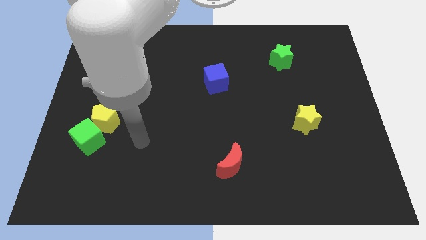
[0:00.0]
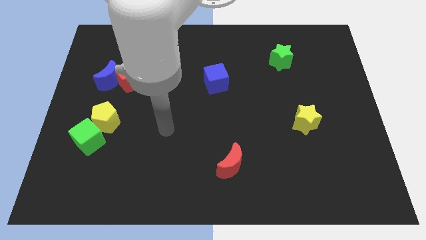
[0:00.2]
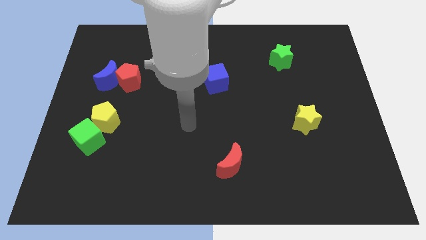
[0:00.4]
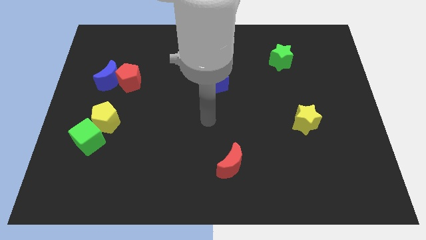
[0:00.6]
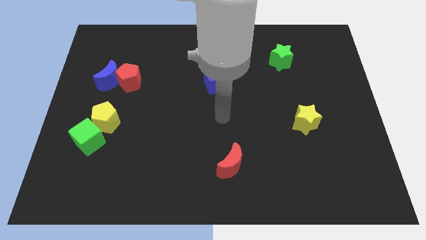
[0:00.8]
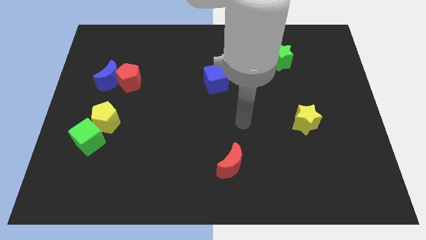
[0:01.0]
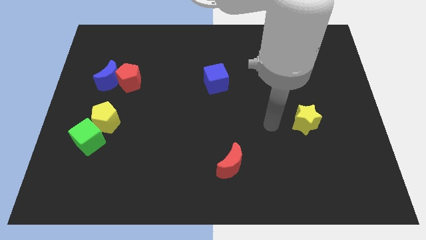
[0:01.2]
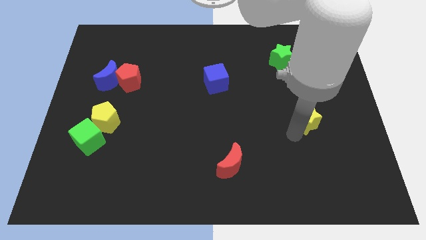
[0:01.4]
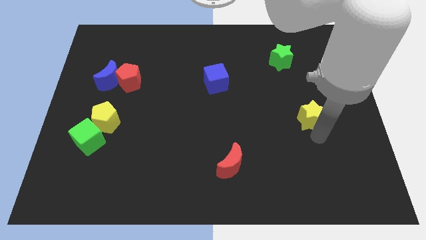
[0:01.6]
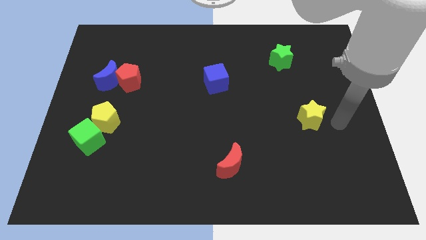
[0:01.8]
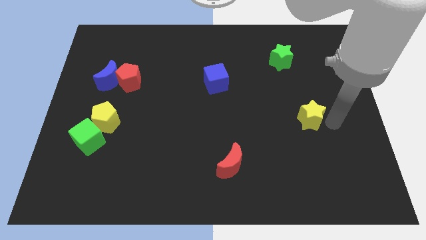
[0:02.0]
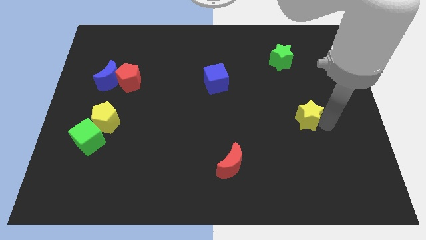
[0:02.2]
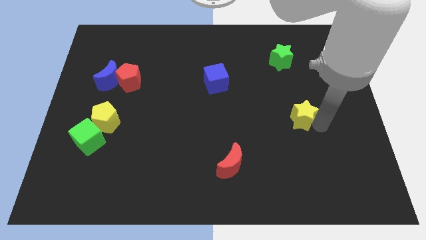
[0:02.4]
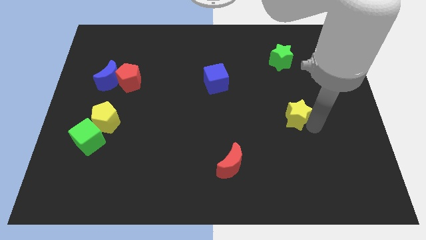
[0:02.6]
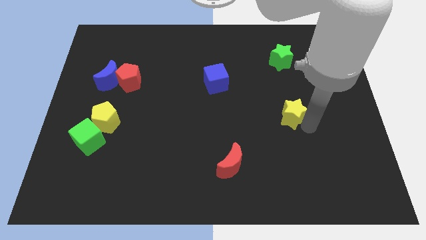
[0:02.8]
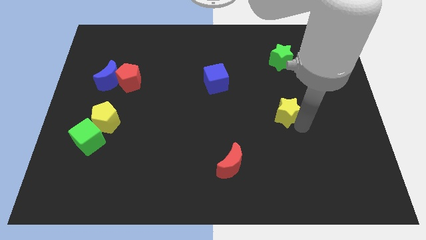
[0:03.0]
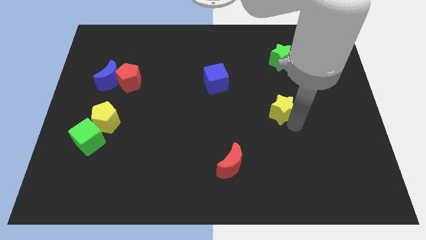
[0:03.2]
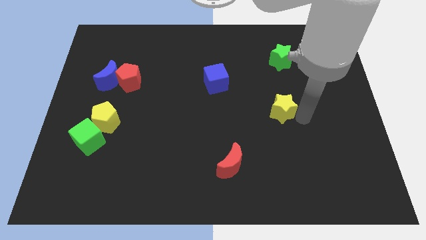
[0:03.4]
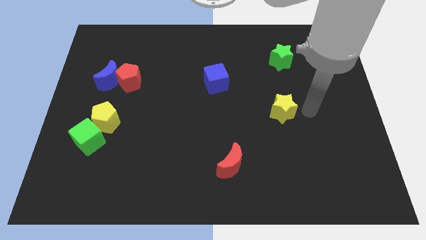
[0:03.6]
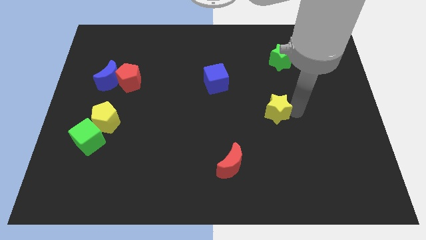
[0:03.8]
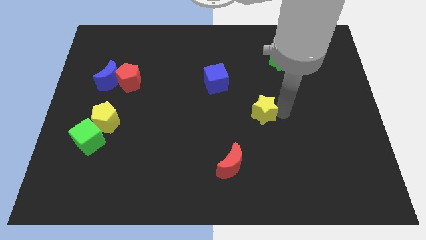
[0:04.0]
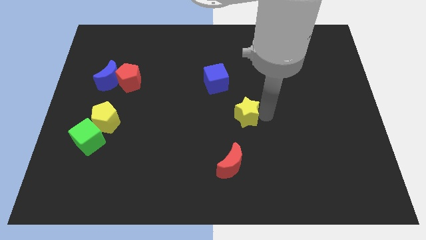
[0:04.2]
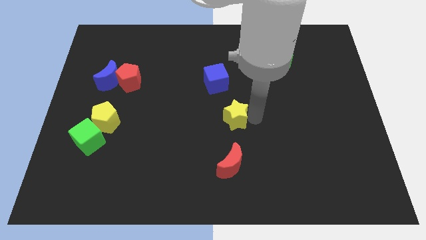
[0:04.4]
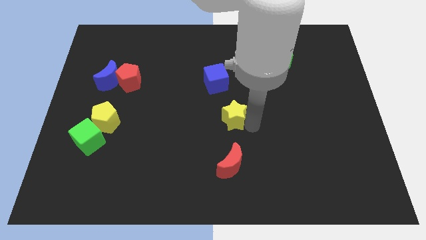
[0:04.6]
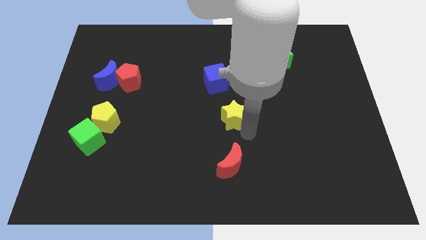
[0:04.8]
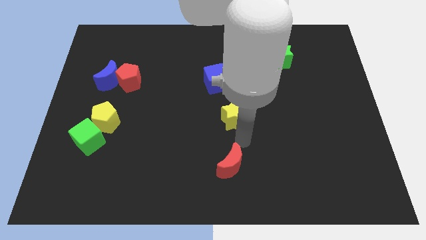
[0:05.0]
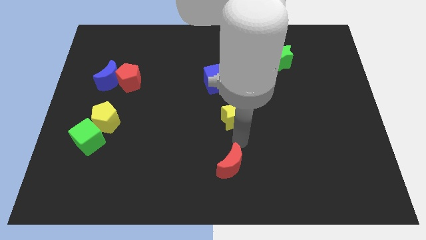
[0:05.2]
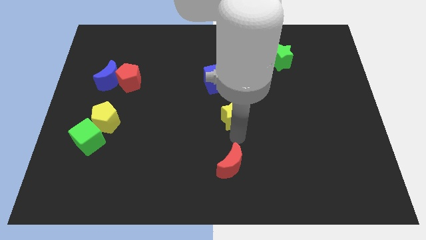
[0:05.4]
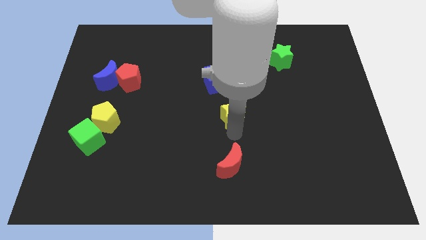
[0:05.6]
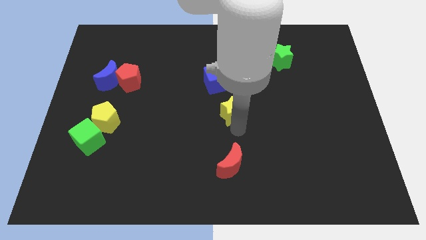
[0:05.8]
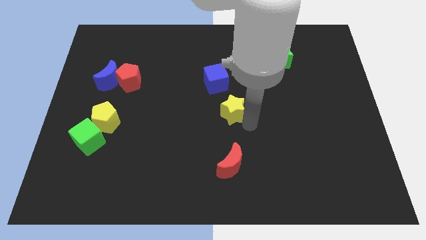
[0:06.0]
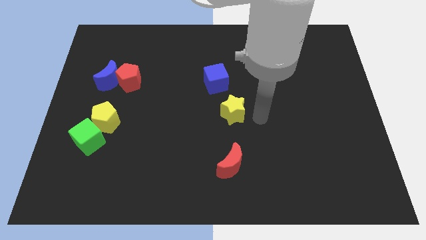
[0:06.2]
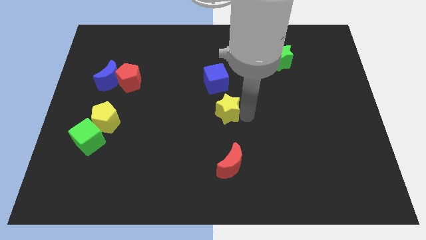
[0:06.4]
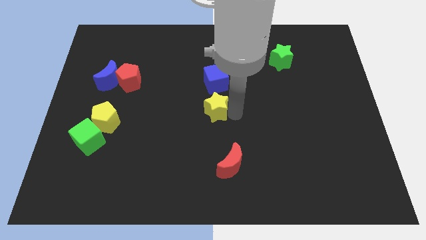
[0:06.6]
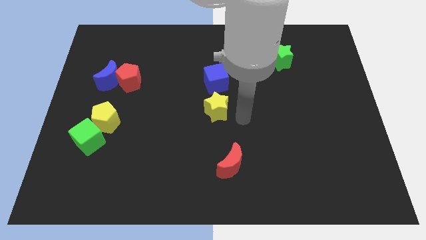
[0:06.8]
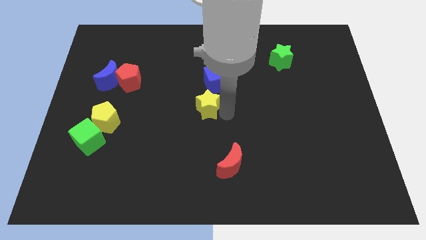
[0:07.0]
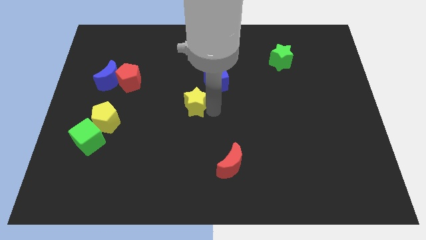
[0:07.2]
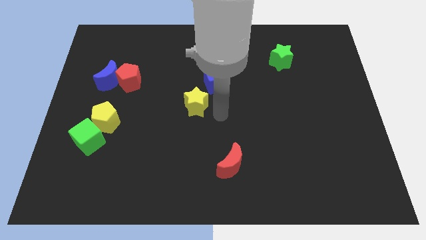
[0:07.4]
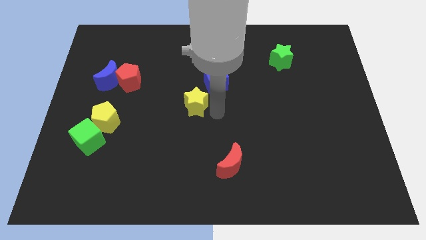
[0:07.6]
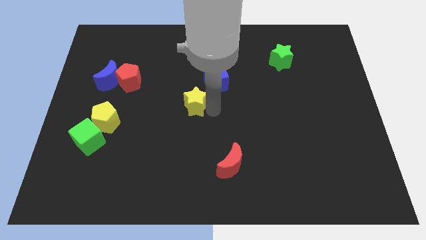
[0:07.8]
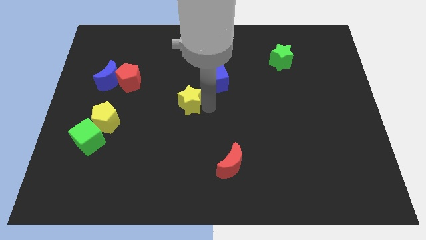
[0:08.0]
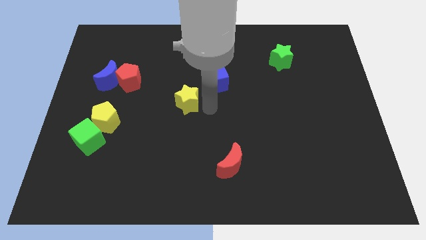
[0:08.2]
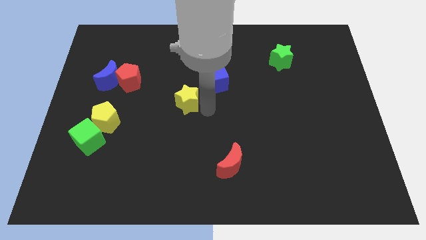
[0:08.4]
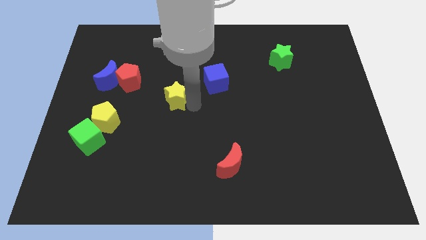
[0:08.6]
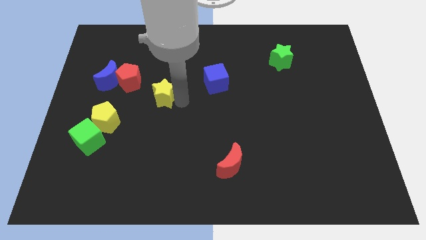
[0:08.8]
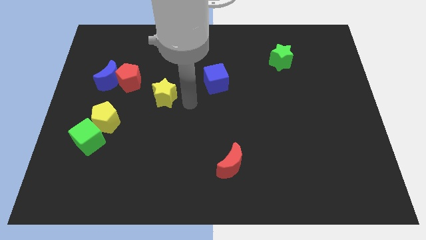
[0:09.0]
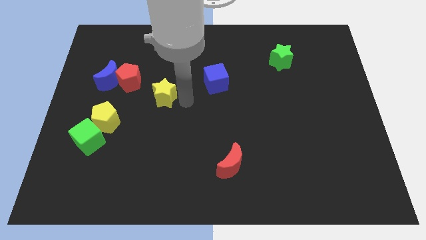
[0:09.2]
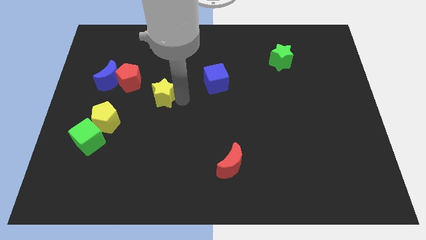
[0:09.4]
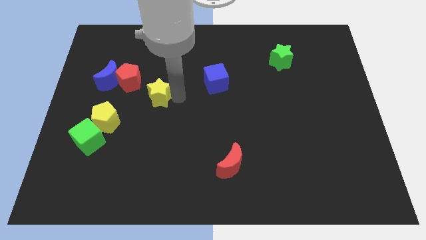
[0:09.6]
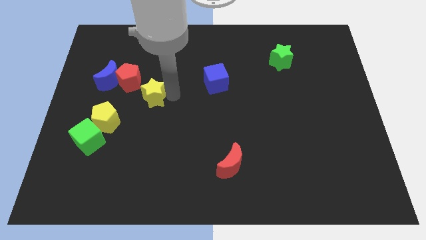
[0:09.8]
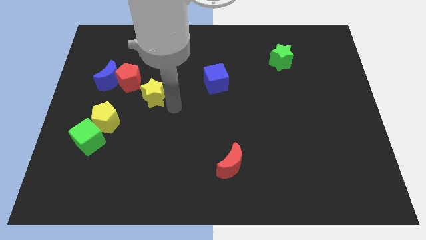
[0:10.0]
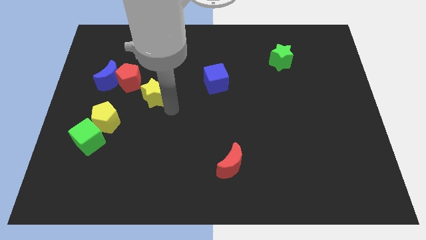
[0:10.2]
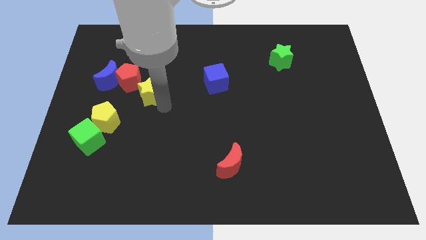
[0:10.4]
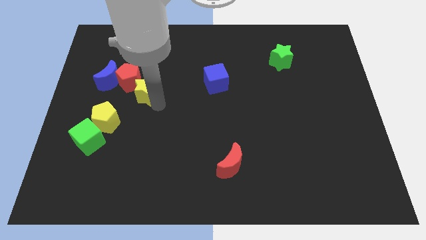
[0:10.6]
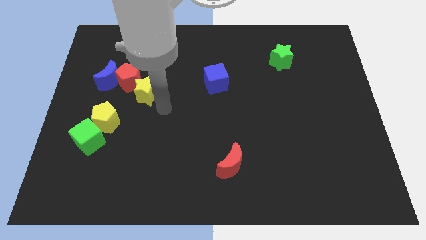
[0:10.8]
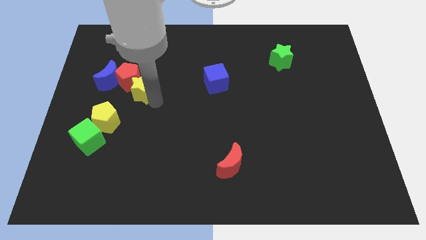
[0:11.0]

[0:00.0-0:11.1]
slide the yellow star next to the red pentagon

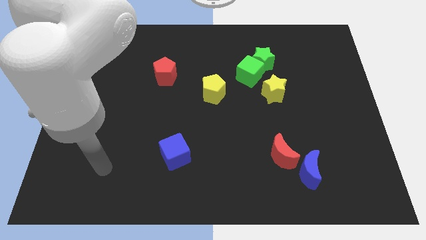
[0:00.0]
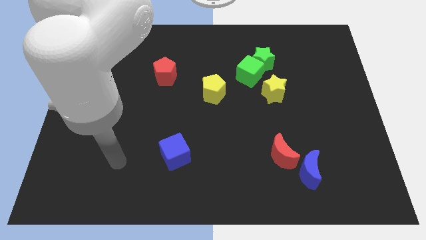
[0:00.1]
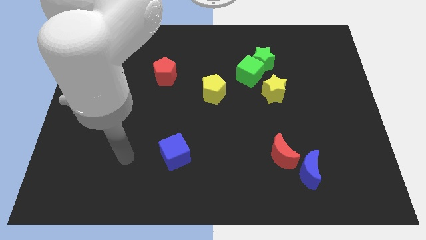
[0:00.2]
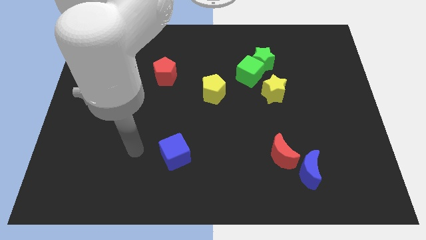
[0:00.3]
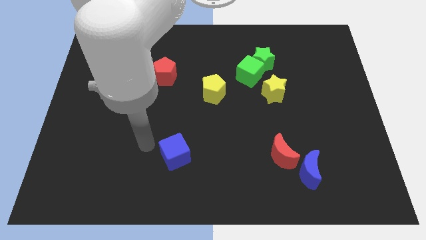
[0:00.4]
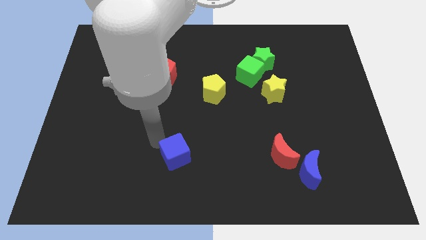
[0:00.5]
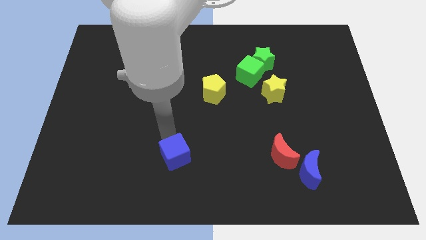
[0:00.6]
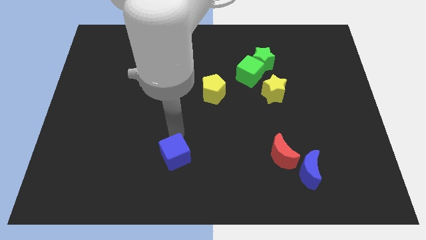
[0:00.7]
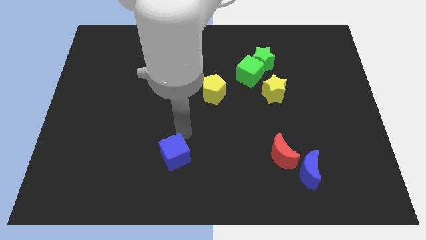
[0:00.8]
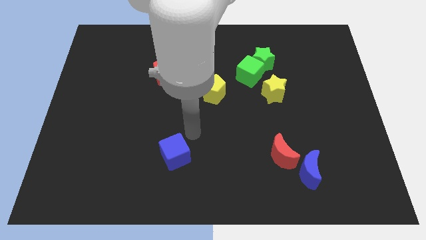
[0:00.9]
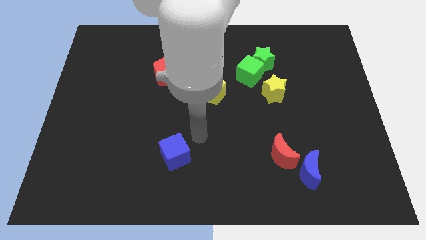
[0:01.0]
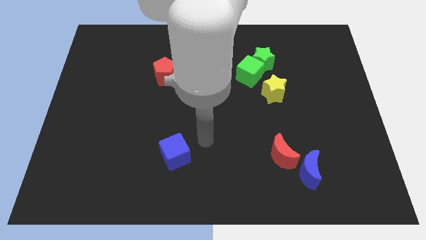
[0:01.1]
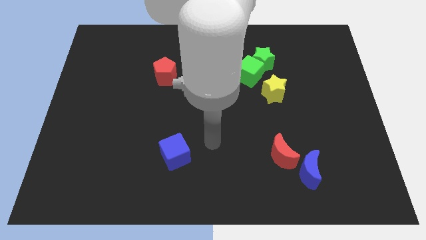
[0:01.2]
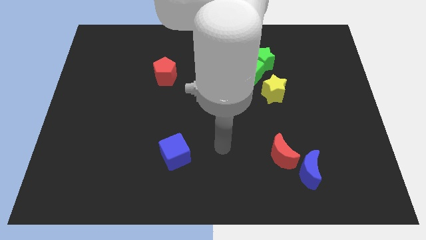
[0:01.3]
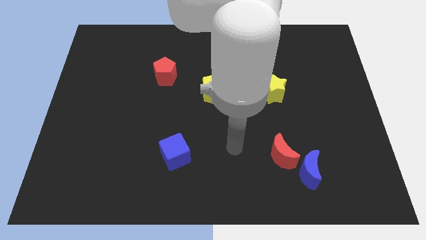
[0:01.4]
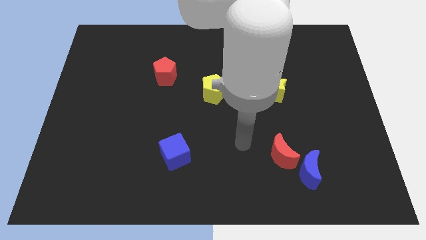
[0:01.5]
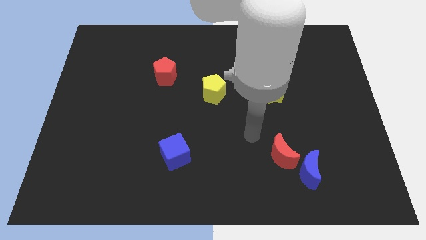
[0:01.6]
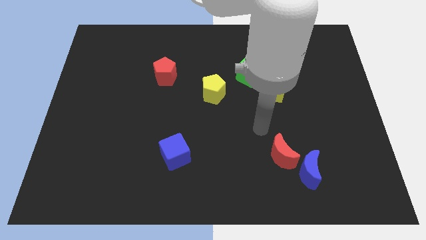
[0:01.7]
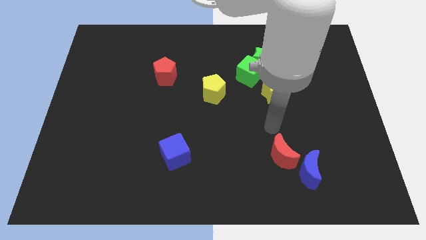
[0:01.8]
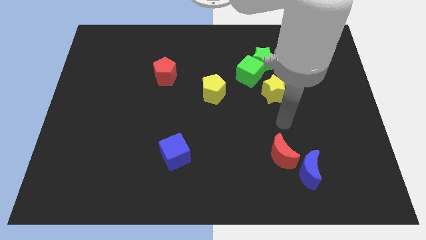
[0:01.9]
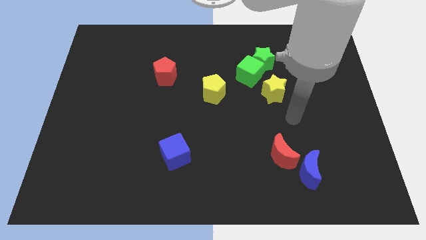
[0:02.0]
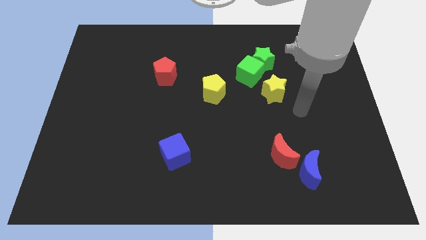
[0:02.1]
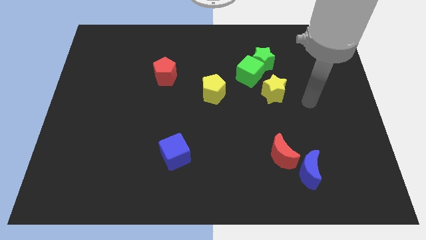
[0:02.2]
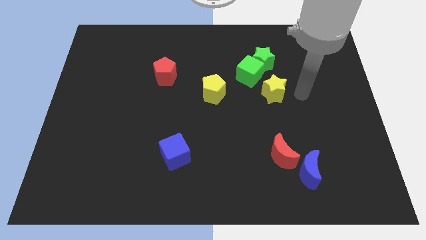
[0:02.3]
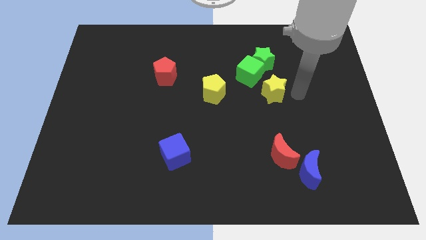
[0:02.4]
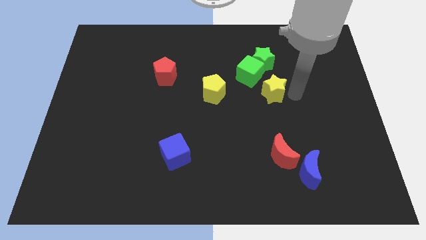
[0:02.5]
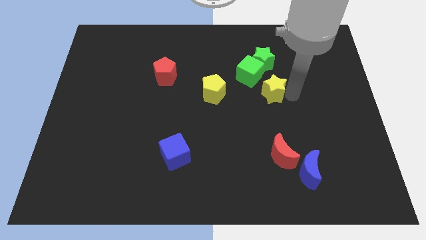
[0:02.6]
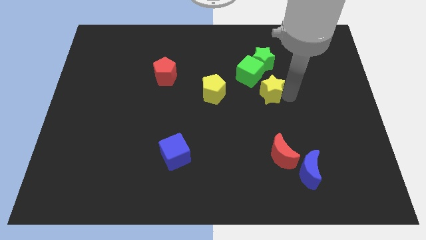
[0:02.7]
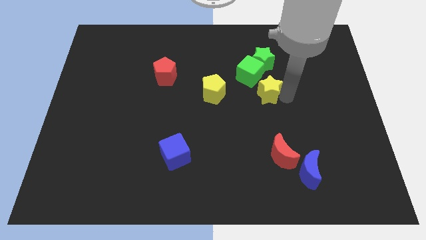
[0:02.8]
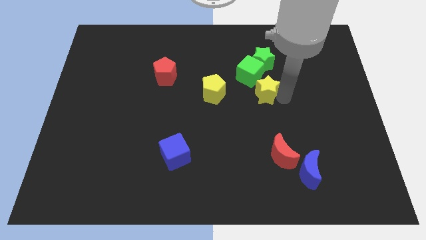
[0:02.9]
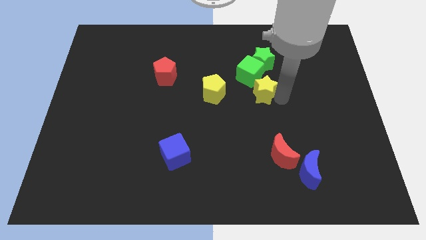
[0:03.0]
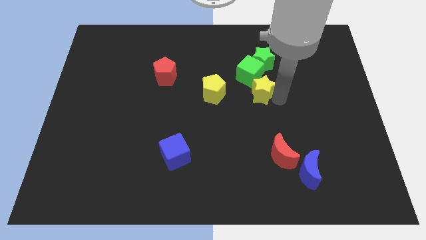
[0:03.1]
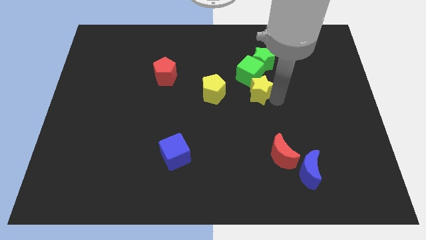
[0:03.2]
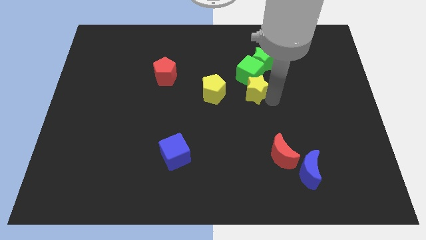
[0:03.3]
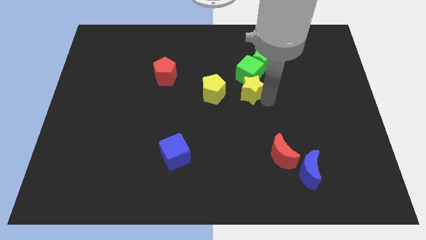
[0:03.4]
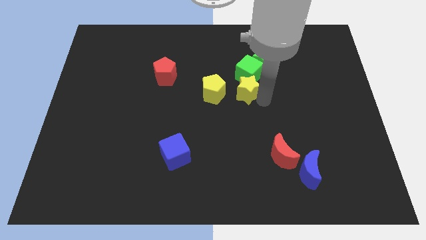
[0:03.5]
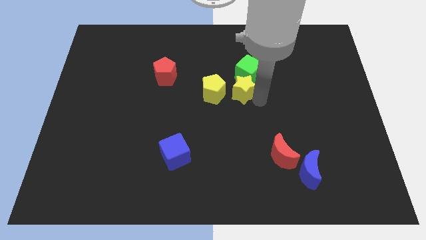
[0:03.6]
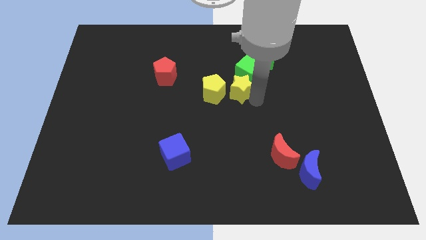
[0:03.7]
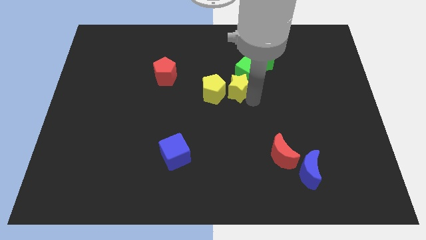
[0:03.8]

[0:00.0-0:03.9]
slide the yellow star next to the yellow pentagon
